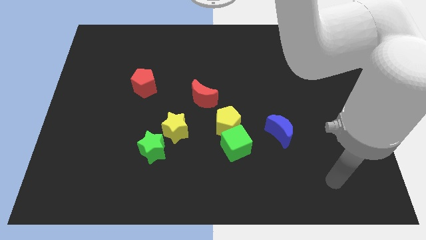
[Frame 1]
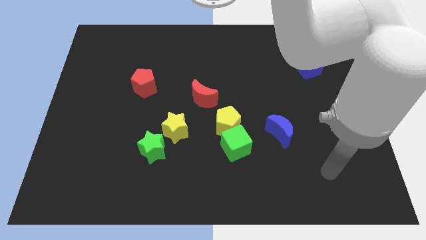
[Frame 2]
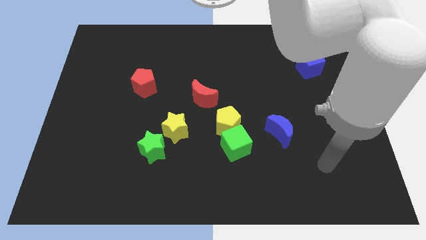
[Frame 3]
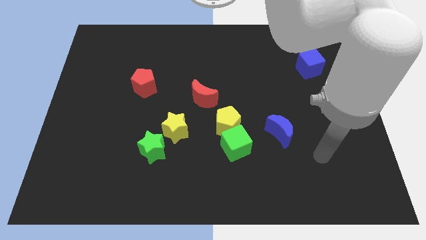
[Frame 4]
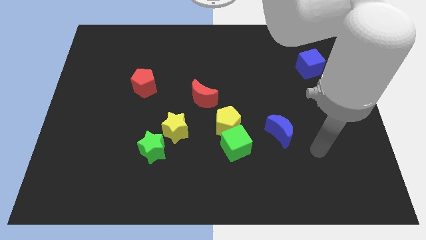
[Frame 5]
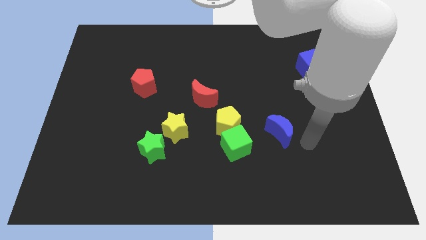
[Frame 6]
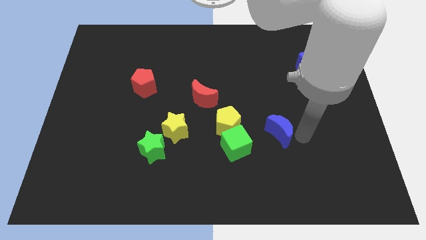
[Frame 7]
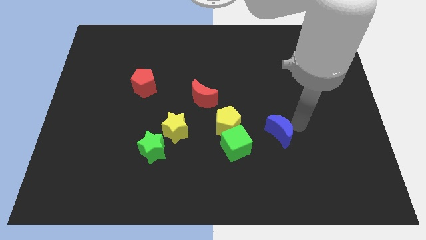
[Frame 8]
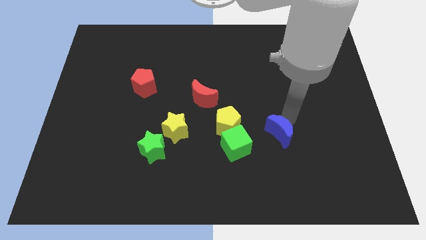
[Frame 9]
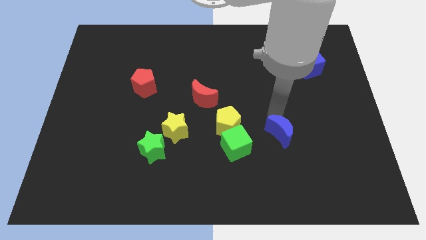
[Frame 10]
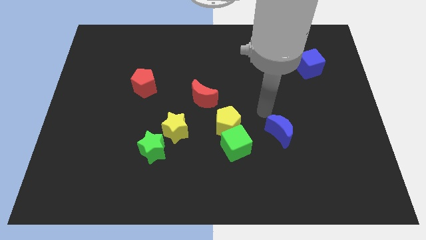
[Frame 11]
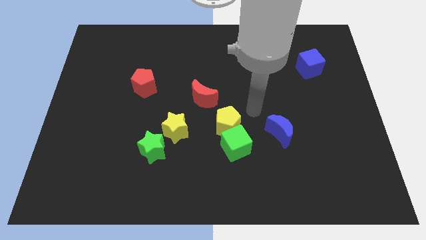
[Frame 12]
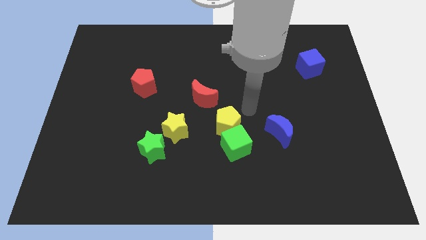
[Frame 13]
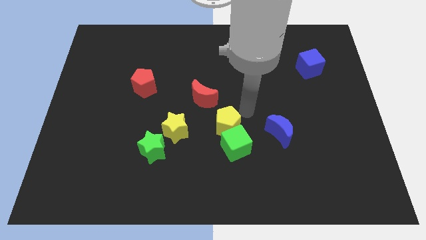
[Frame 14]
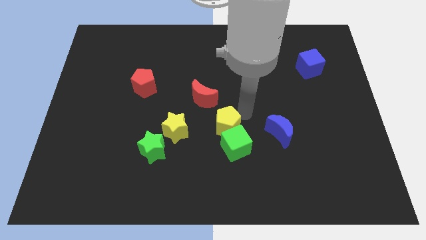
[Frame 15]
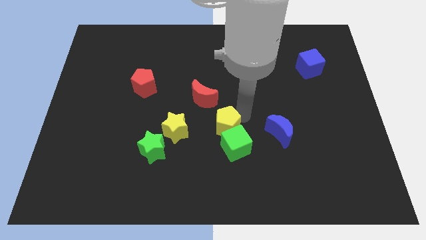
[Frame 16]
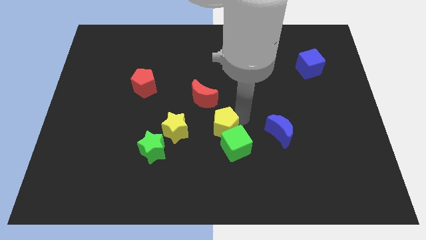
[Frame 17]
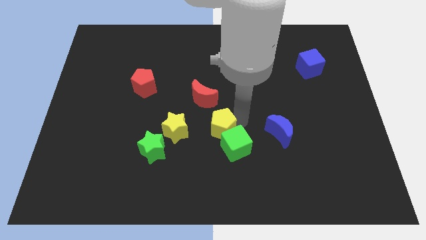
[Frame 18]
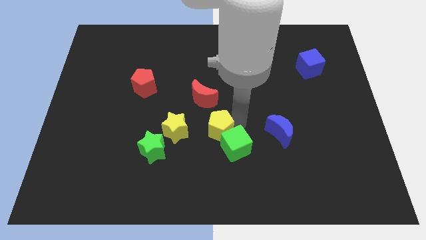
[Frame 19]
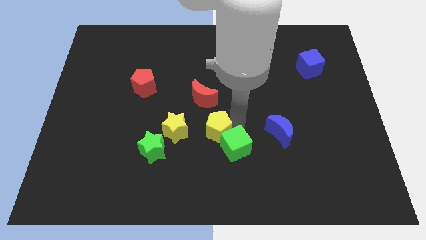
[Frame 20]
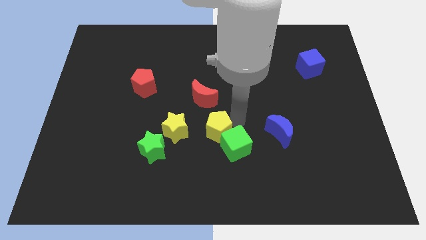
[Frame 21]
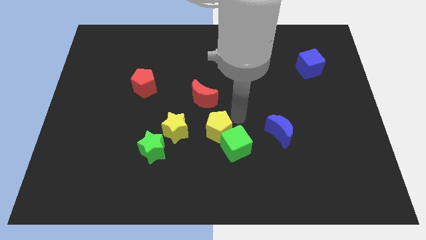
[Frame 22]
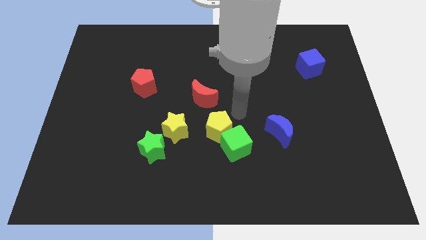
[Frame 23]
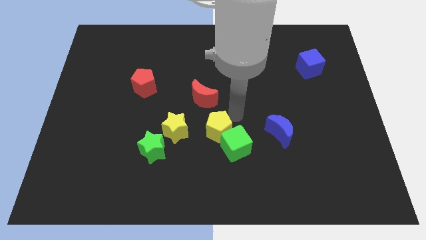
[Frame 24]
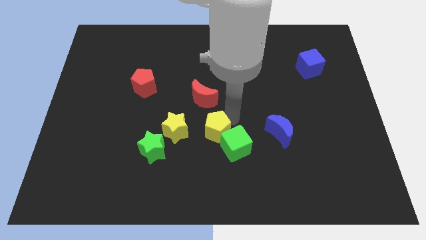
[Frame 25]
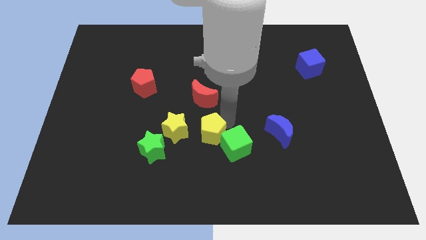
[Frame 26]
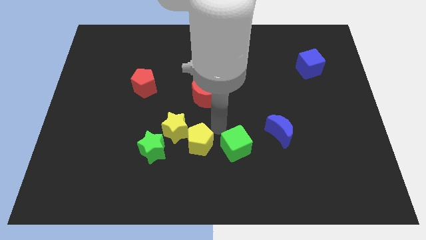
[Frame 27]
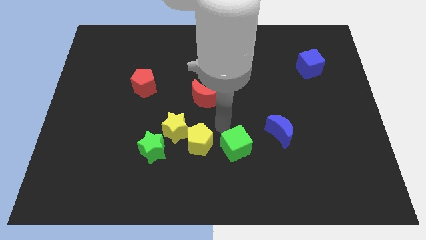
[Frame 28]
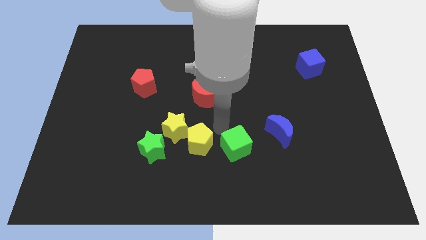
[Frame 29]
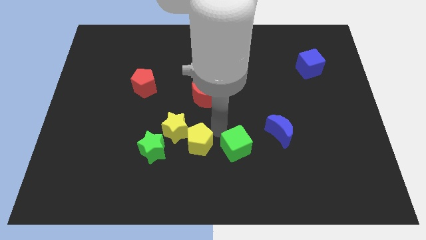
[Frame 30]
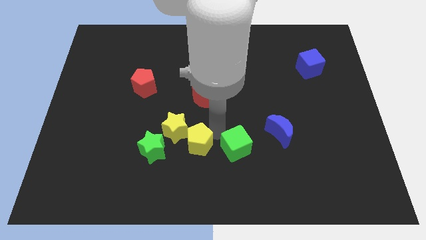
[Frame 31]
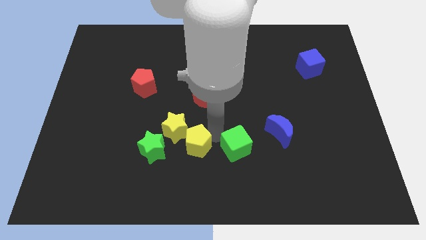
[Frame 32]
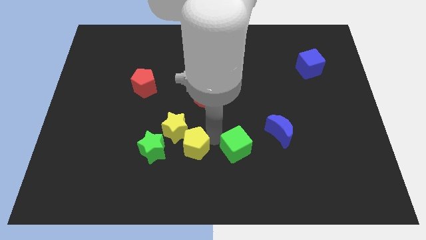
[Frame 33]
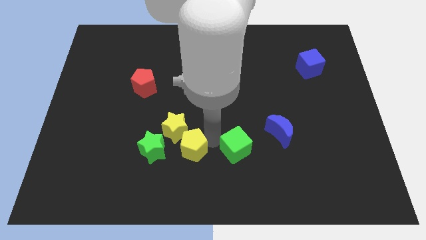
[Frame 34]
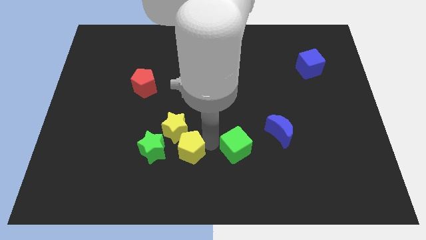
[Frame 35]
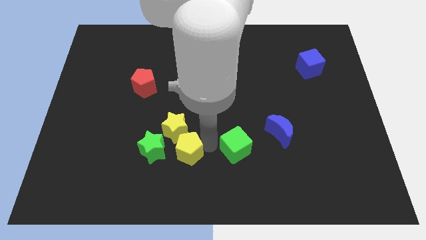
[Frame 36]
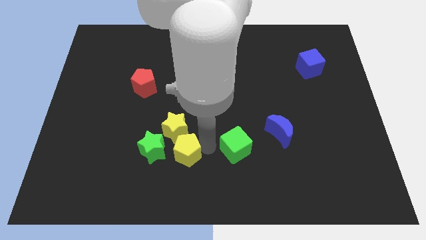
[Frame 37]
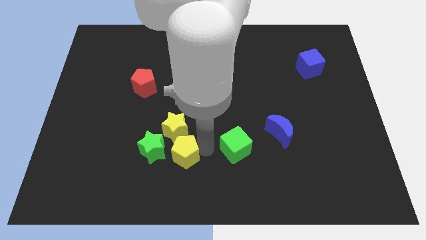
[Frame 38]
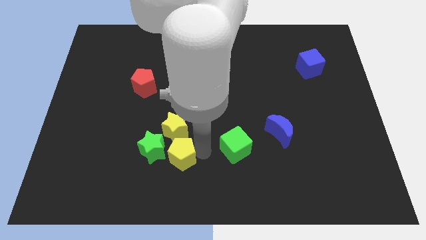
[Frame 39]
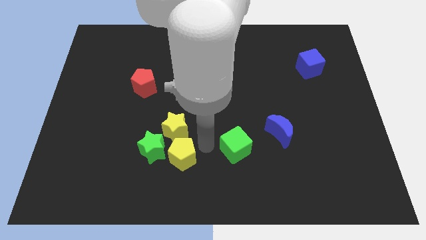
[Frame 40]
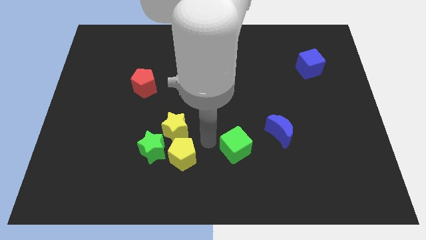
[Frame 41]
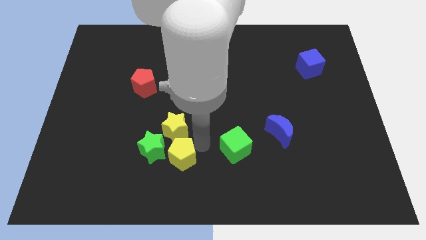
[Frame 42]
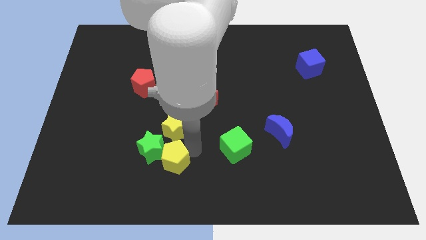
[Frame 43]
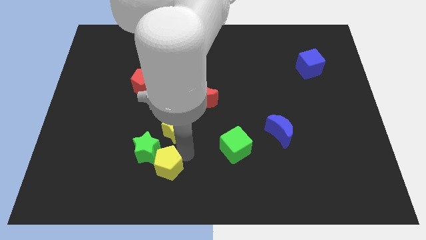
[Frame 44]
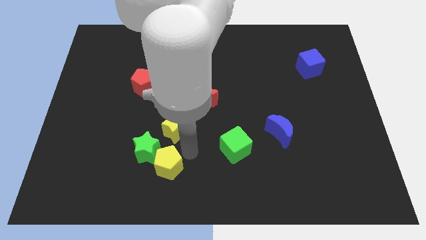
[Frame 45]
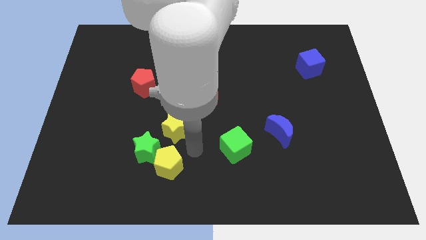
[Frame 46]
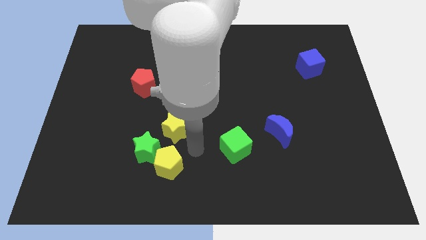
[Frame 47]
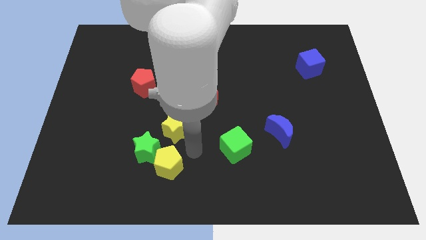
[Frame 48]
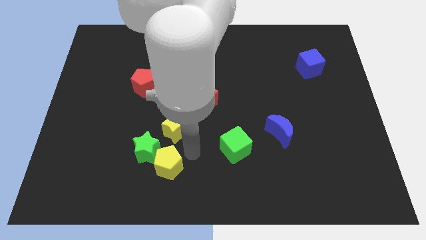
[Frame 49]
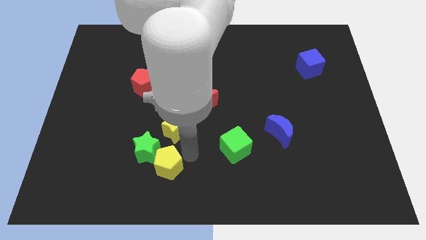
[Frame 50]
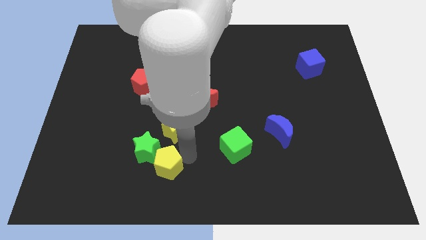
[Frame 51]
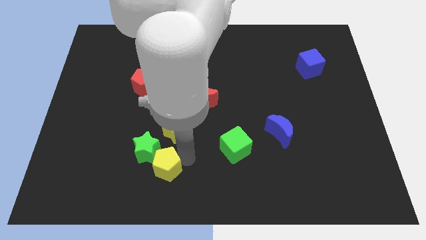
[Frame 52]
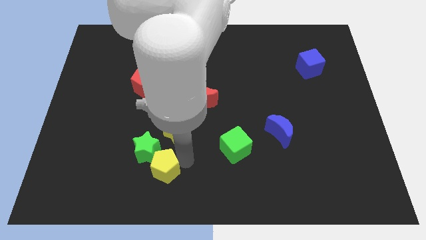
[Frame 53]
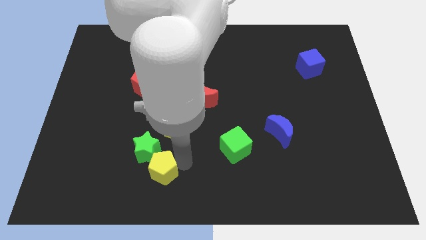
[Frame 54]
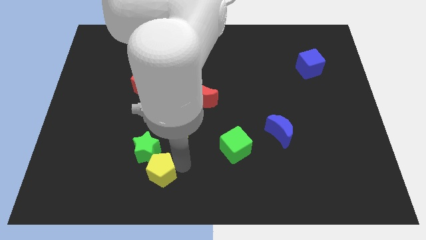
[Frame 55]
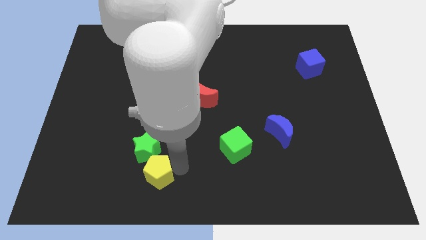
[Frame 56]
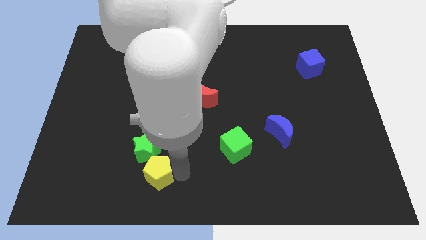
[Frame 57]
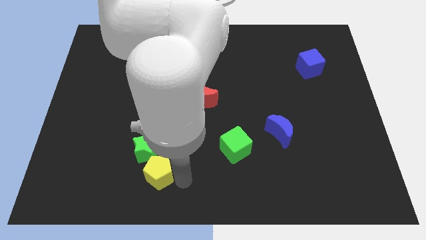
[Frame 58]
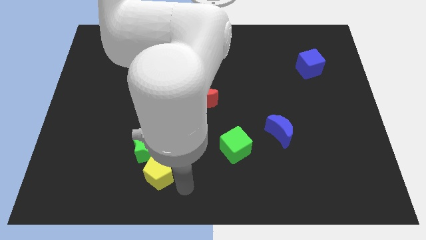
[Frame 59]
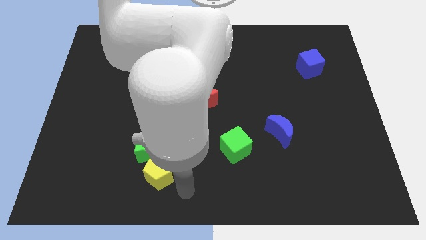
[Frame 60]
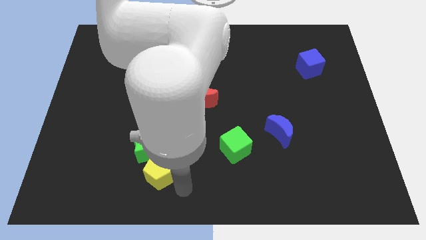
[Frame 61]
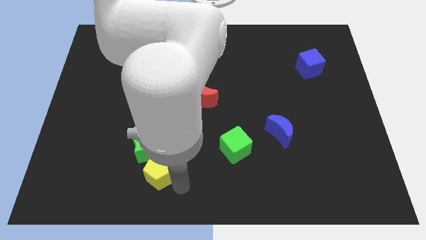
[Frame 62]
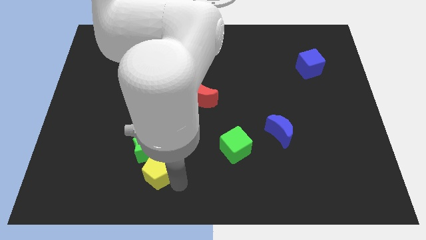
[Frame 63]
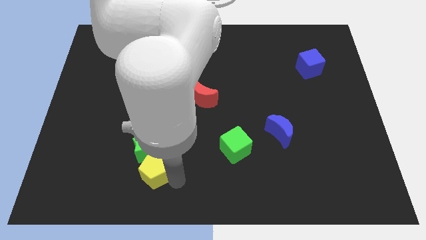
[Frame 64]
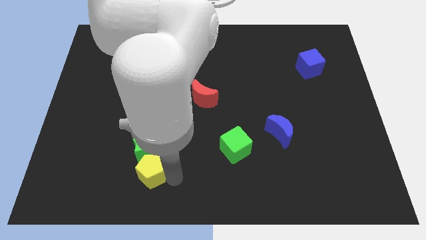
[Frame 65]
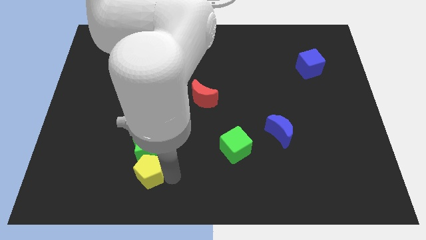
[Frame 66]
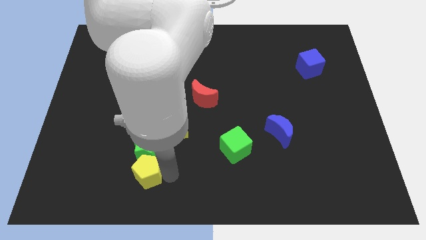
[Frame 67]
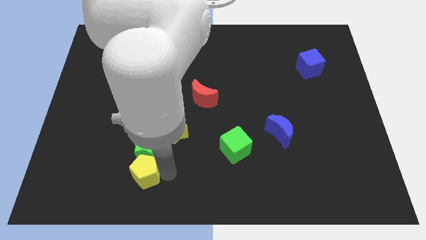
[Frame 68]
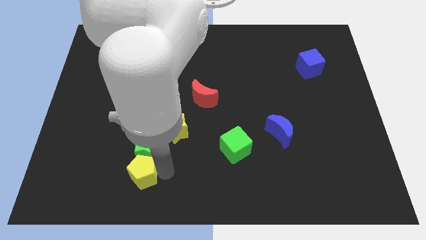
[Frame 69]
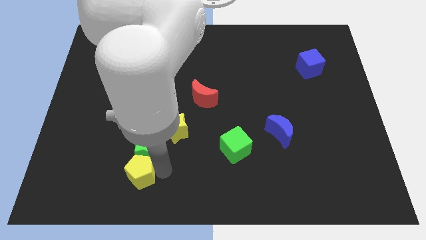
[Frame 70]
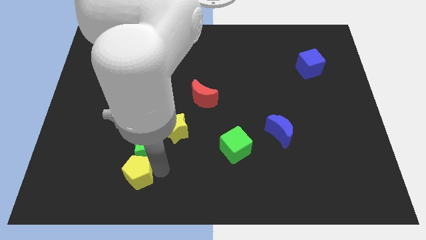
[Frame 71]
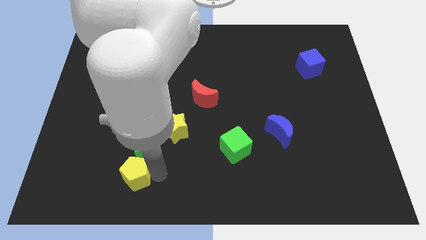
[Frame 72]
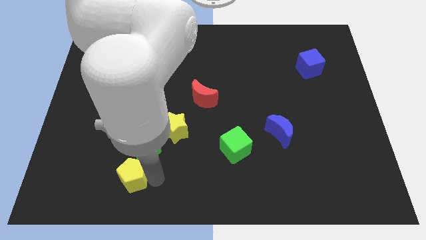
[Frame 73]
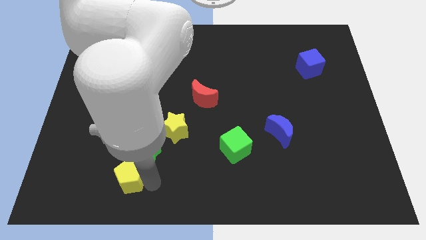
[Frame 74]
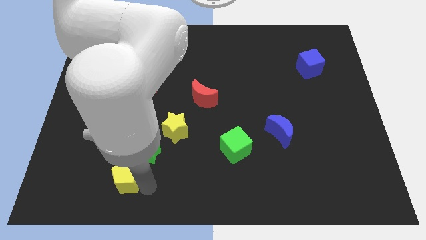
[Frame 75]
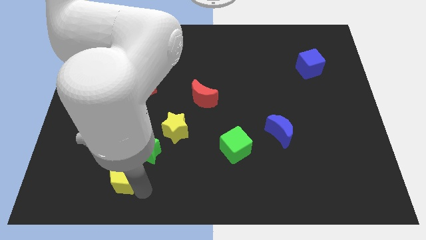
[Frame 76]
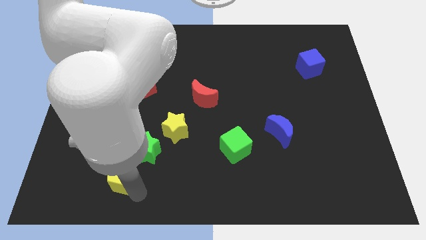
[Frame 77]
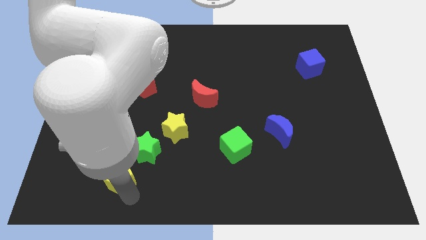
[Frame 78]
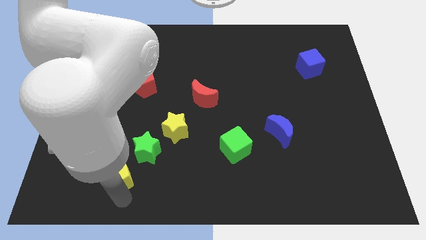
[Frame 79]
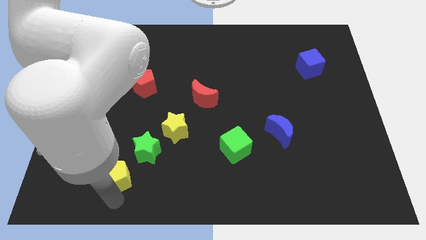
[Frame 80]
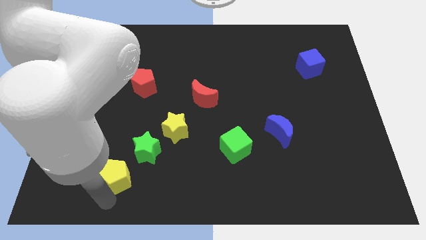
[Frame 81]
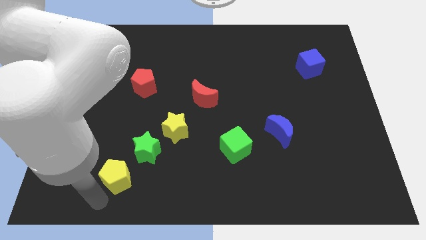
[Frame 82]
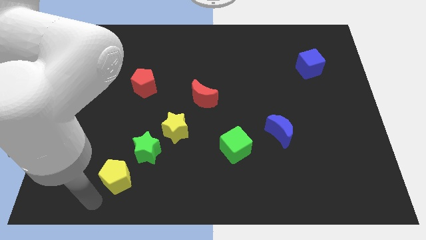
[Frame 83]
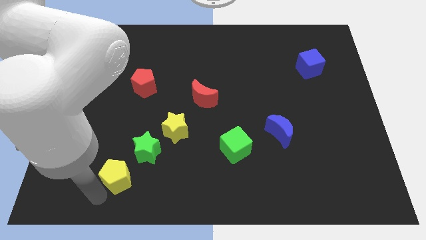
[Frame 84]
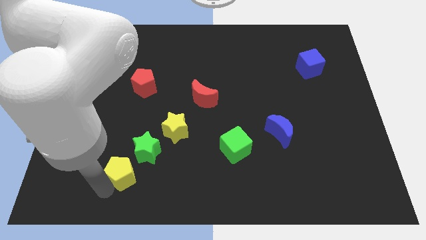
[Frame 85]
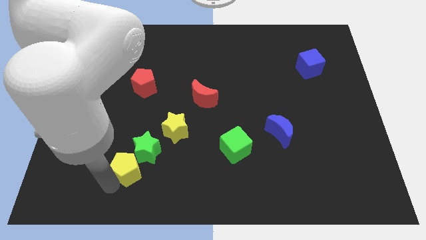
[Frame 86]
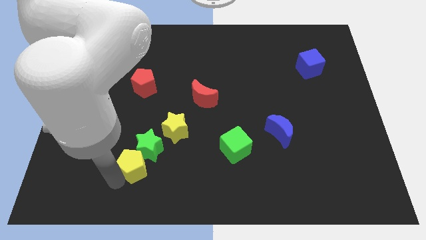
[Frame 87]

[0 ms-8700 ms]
slide the yellow pentagon diagonally down and to the left of the yellow star
